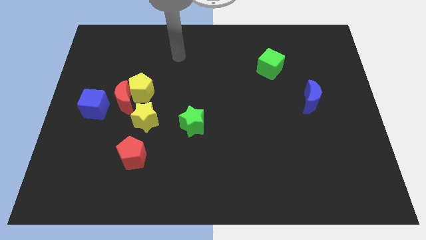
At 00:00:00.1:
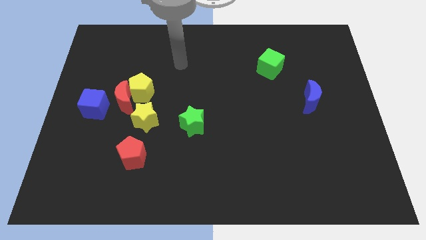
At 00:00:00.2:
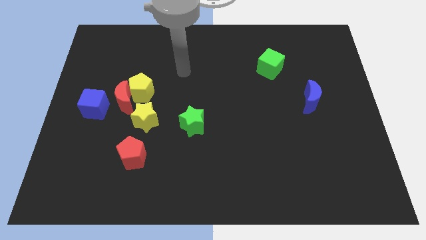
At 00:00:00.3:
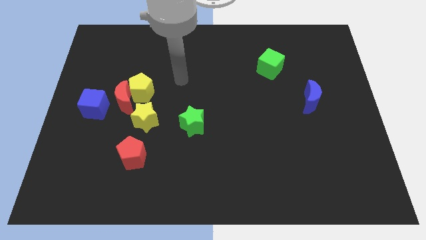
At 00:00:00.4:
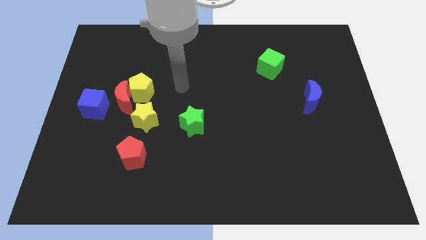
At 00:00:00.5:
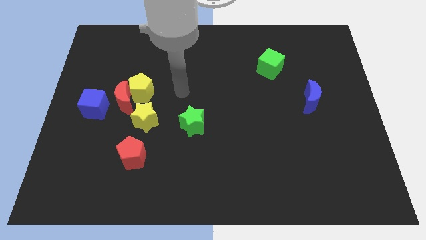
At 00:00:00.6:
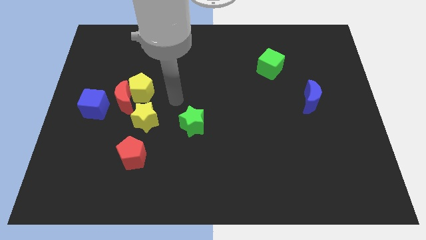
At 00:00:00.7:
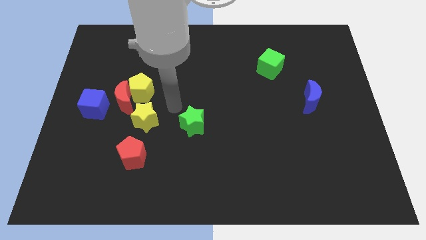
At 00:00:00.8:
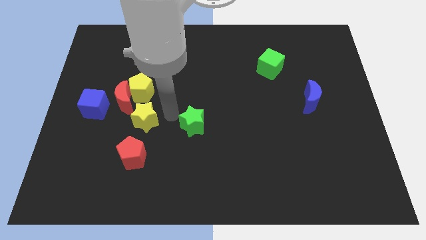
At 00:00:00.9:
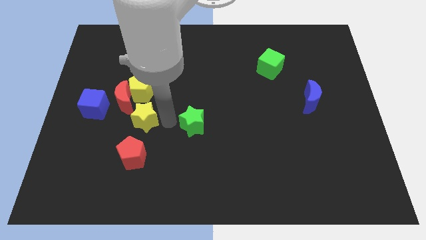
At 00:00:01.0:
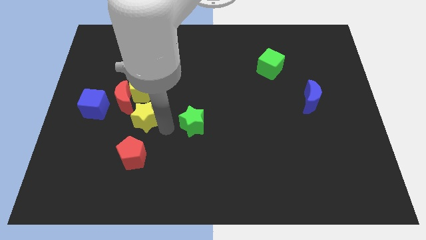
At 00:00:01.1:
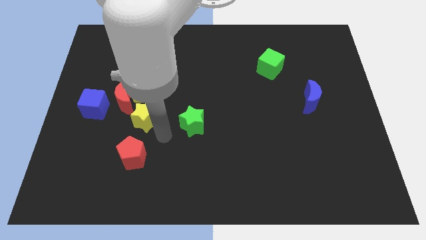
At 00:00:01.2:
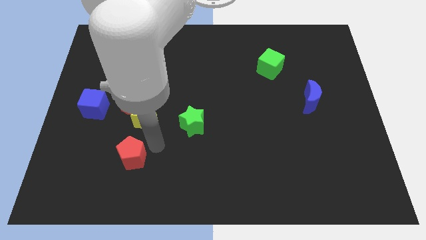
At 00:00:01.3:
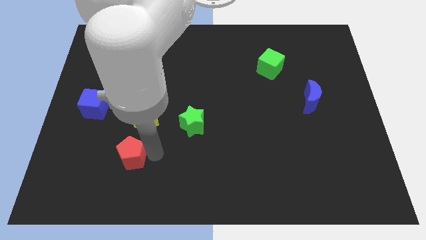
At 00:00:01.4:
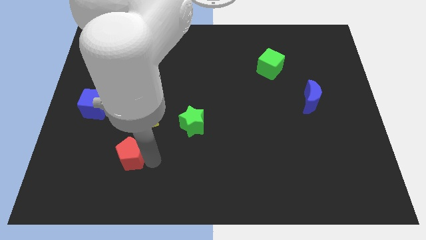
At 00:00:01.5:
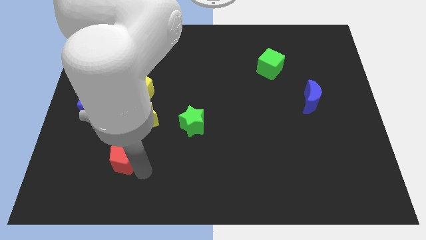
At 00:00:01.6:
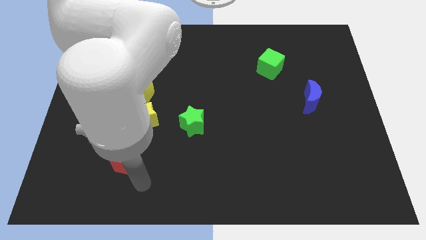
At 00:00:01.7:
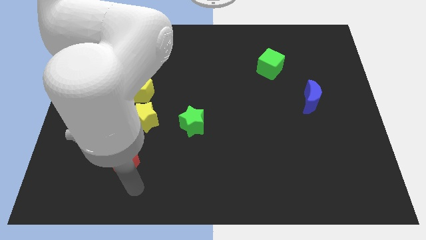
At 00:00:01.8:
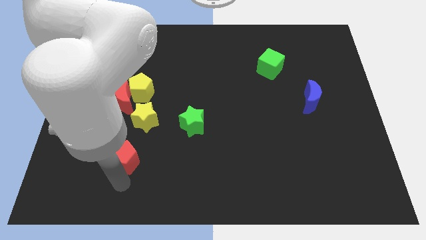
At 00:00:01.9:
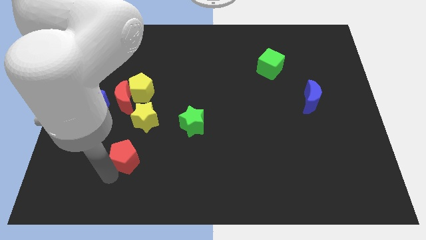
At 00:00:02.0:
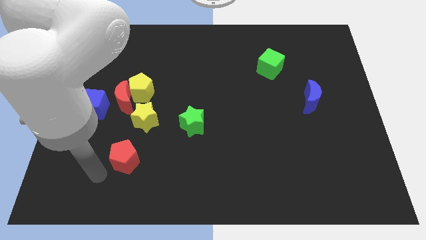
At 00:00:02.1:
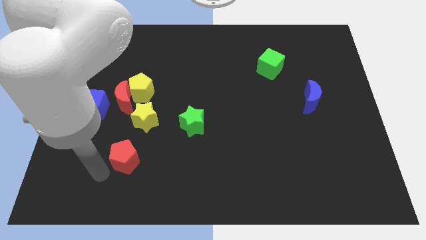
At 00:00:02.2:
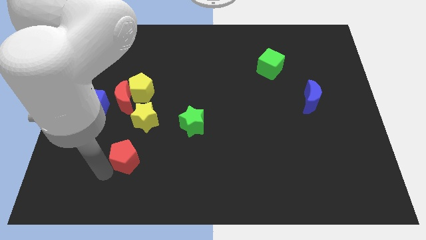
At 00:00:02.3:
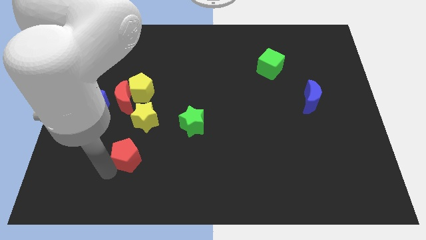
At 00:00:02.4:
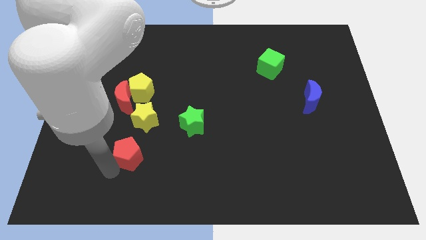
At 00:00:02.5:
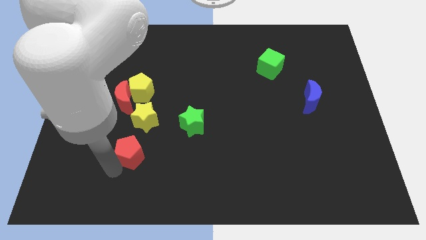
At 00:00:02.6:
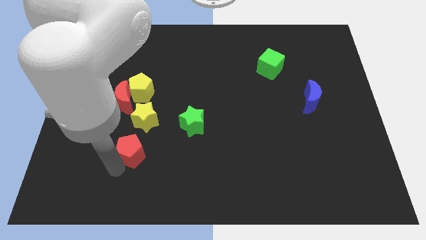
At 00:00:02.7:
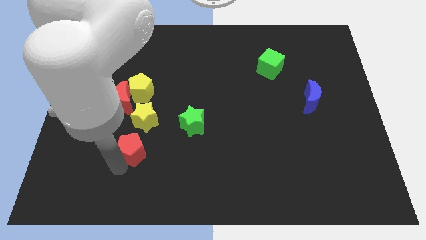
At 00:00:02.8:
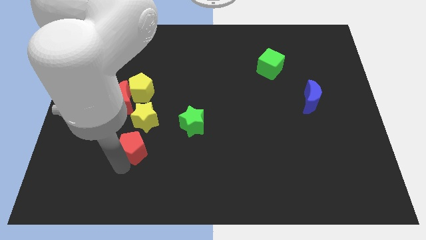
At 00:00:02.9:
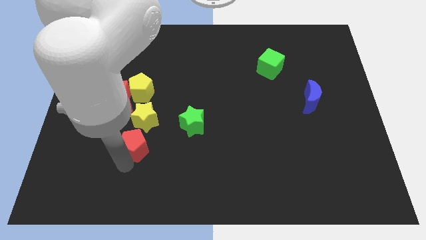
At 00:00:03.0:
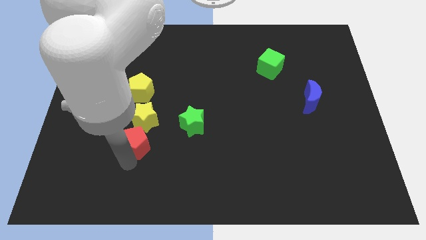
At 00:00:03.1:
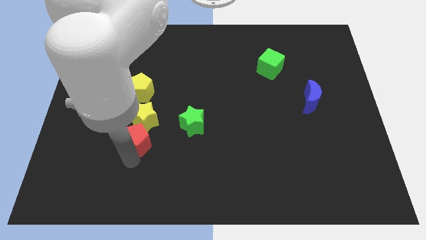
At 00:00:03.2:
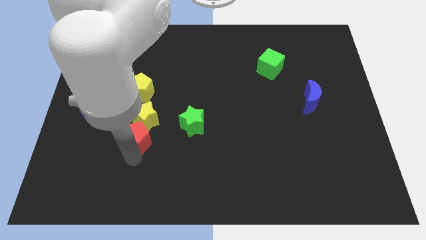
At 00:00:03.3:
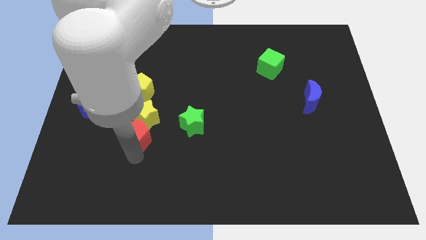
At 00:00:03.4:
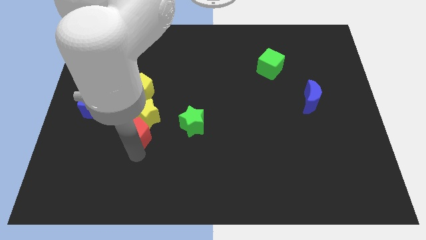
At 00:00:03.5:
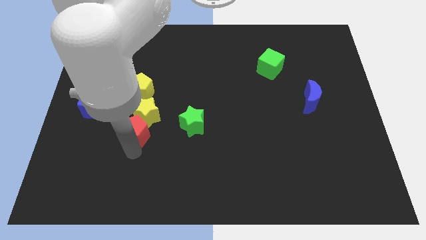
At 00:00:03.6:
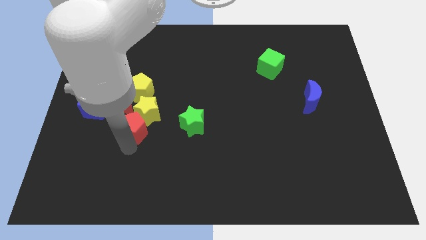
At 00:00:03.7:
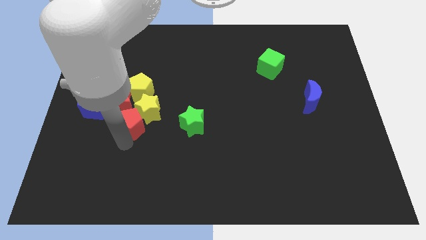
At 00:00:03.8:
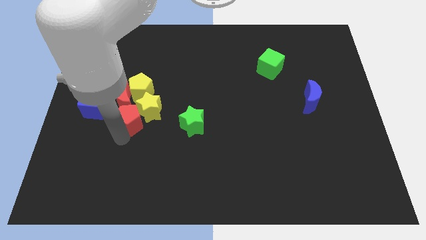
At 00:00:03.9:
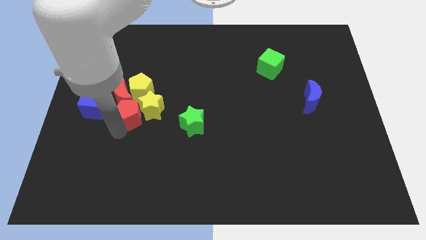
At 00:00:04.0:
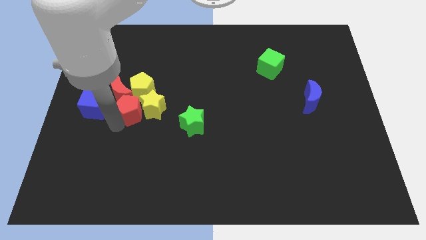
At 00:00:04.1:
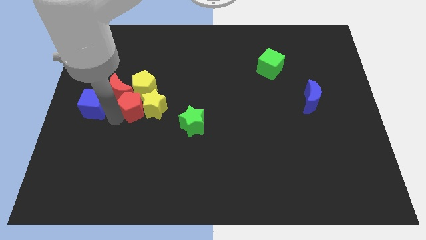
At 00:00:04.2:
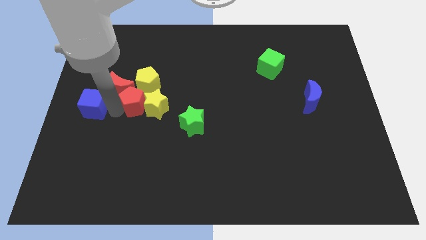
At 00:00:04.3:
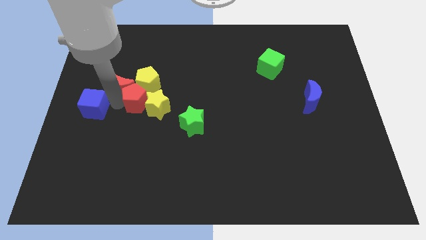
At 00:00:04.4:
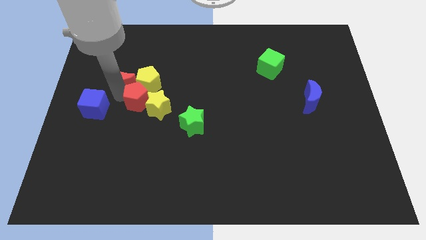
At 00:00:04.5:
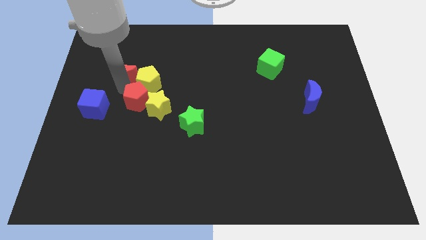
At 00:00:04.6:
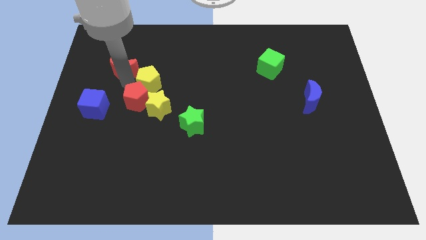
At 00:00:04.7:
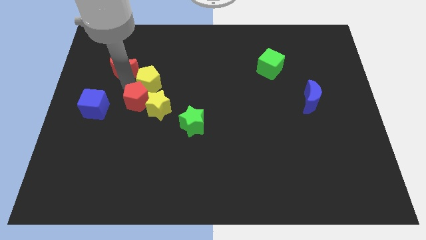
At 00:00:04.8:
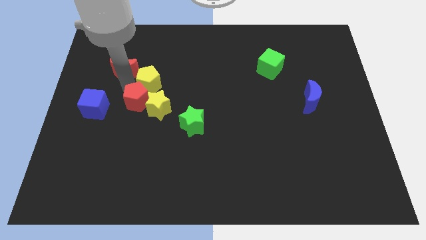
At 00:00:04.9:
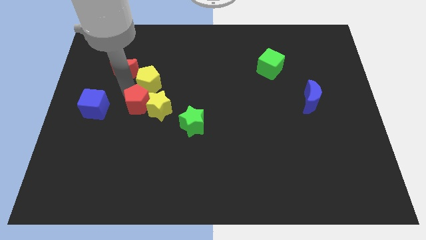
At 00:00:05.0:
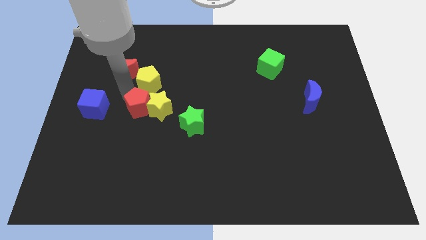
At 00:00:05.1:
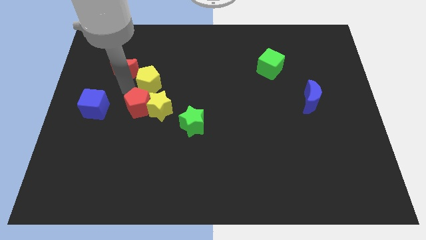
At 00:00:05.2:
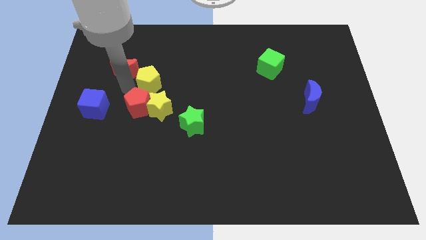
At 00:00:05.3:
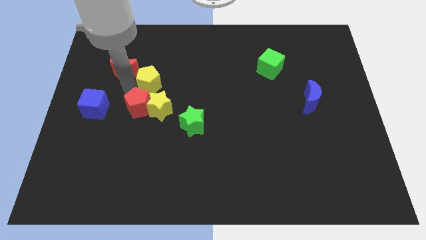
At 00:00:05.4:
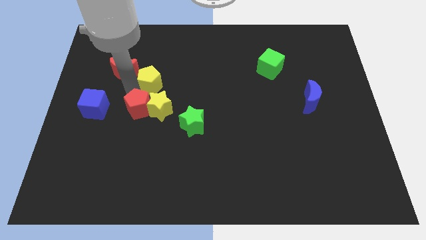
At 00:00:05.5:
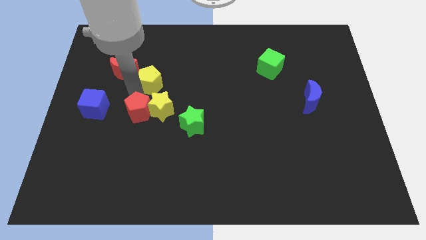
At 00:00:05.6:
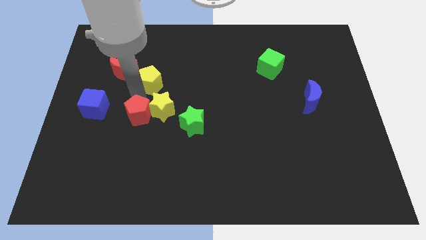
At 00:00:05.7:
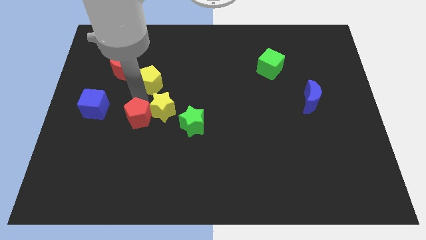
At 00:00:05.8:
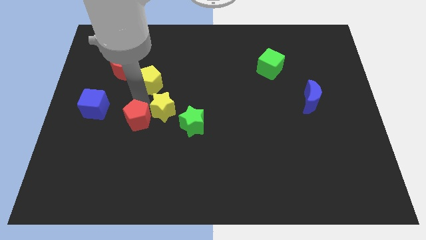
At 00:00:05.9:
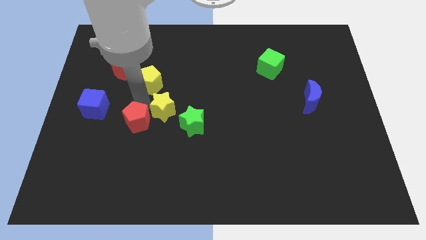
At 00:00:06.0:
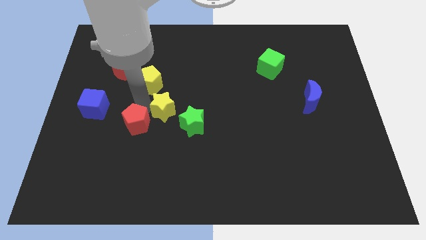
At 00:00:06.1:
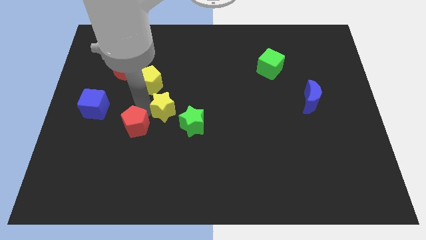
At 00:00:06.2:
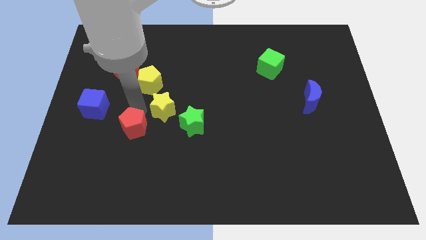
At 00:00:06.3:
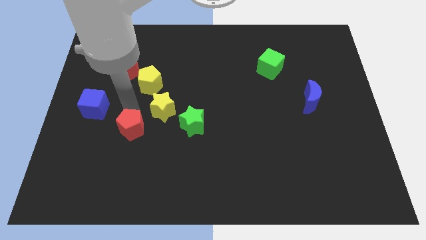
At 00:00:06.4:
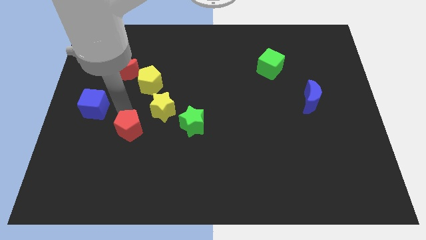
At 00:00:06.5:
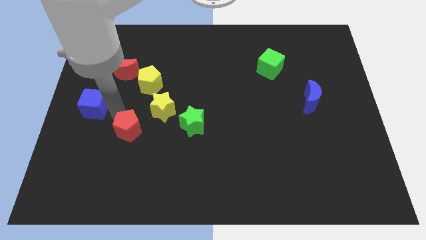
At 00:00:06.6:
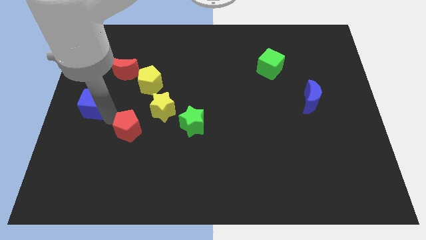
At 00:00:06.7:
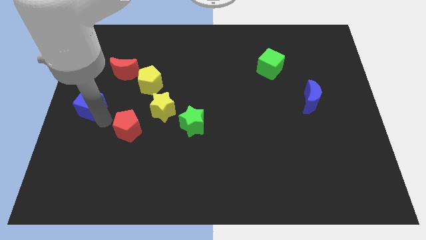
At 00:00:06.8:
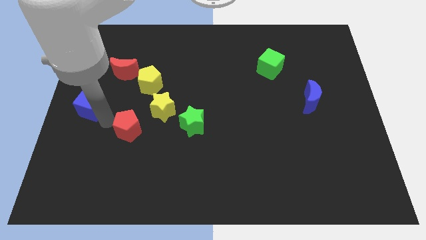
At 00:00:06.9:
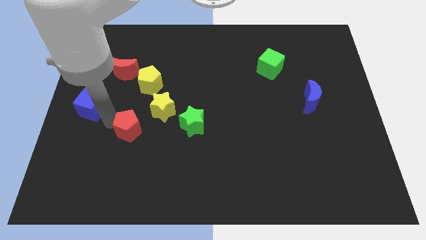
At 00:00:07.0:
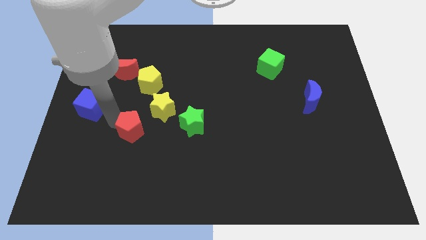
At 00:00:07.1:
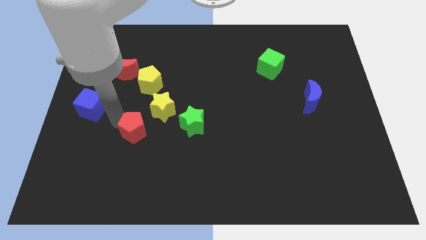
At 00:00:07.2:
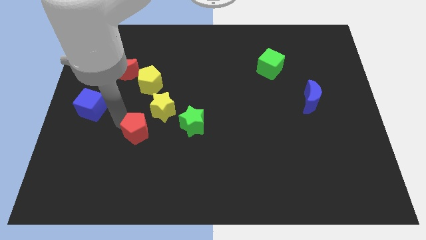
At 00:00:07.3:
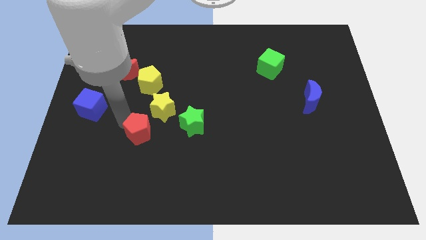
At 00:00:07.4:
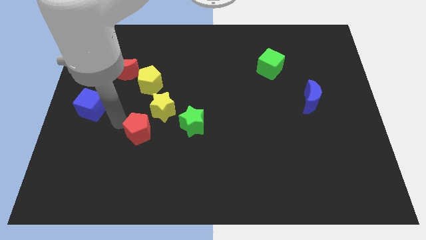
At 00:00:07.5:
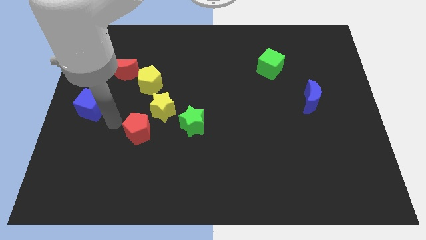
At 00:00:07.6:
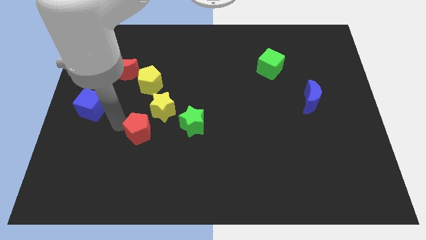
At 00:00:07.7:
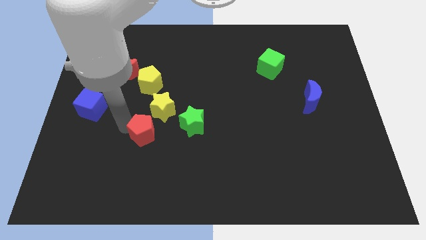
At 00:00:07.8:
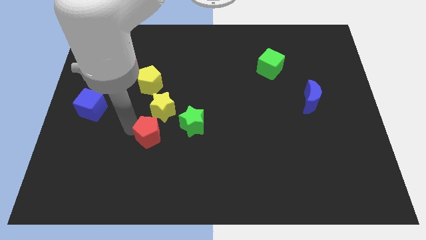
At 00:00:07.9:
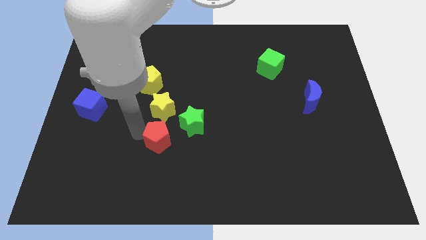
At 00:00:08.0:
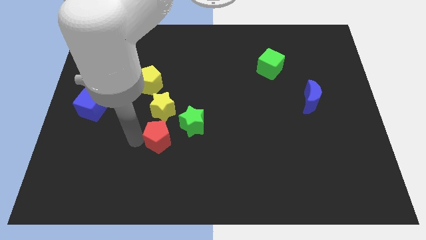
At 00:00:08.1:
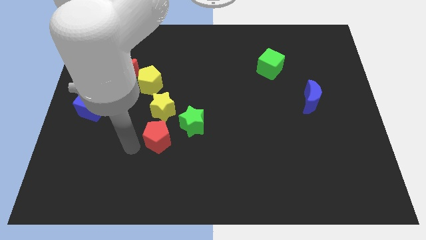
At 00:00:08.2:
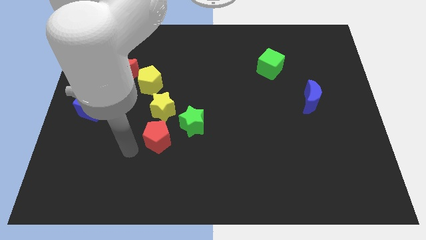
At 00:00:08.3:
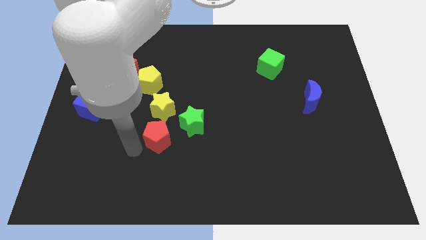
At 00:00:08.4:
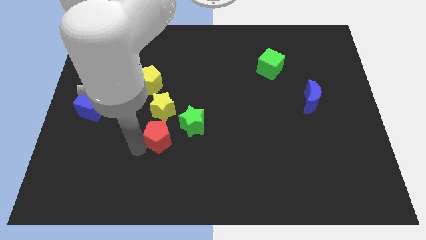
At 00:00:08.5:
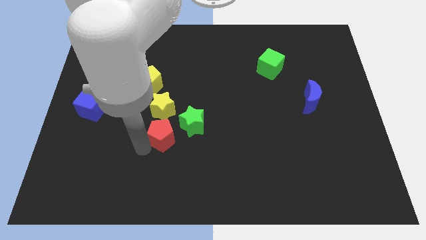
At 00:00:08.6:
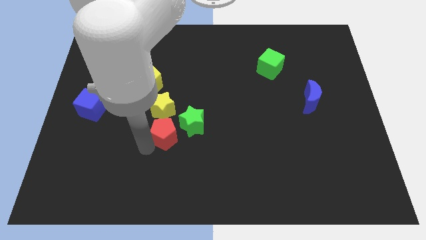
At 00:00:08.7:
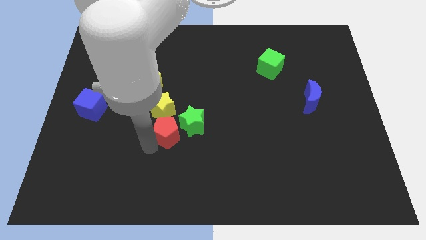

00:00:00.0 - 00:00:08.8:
move the red pentagon towards the green star
